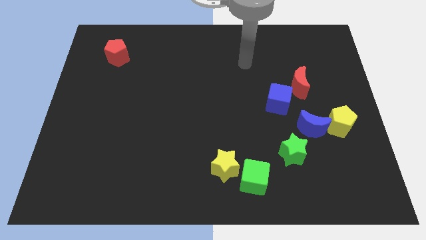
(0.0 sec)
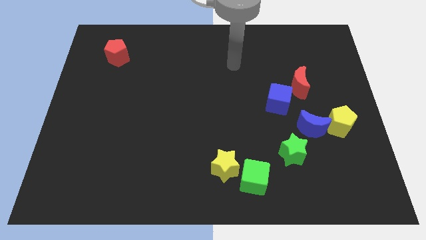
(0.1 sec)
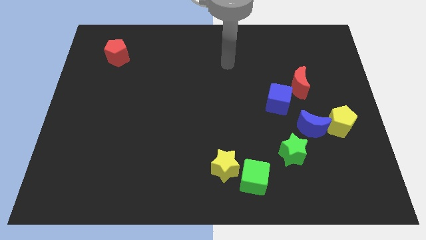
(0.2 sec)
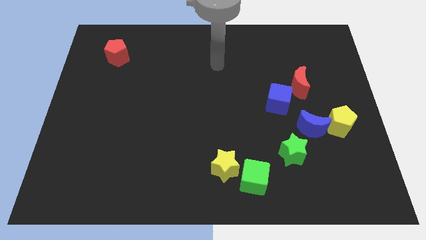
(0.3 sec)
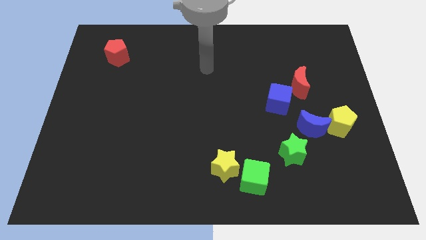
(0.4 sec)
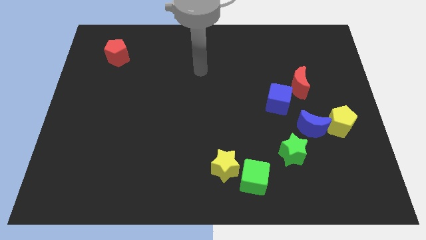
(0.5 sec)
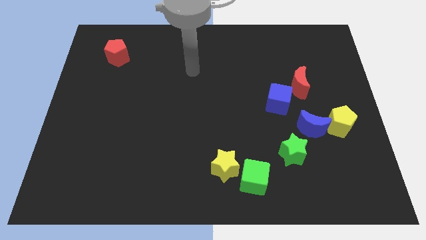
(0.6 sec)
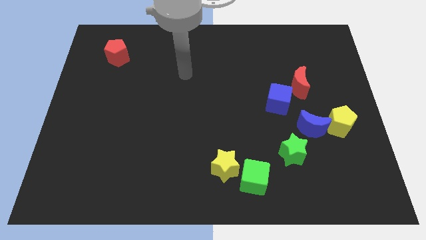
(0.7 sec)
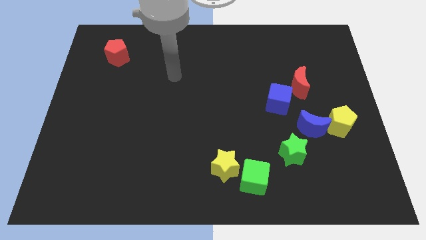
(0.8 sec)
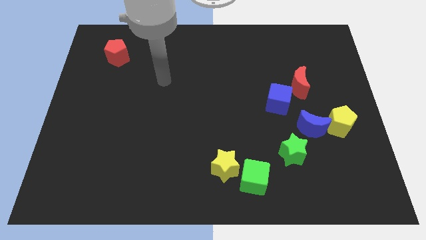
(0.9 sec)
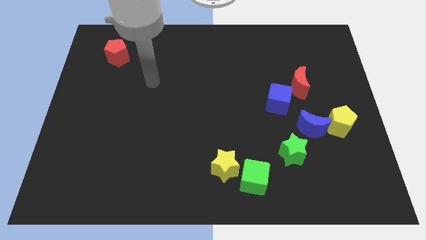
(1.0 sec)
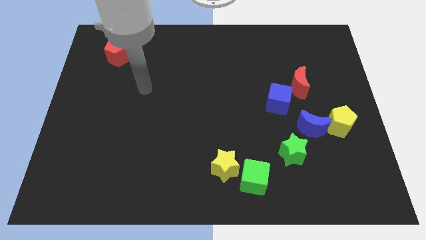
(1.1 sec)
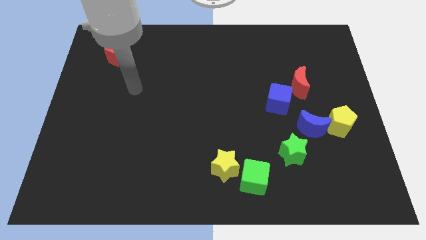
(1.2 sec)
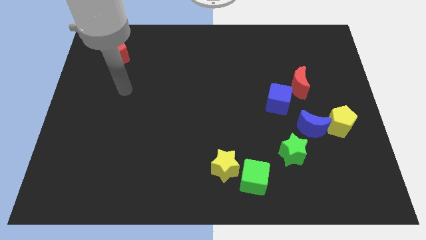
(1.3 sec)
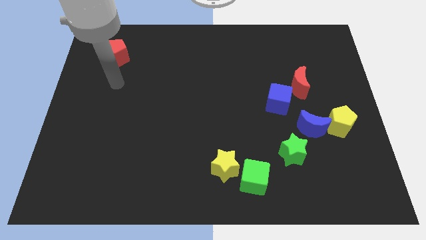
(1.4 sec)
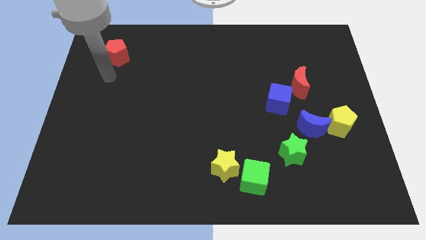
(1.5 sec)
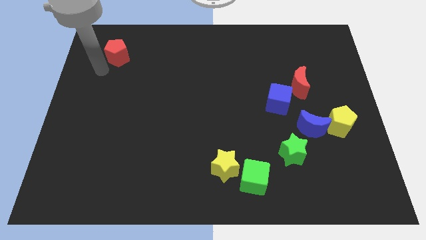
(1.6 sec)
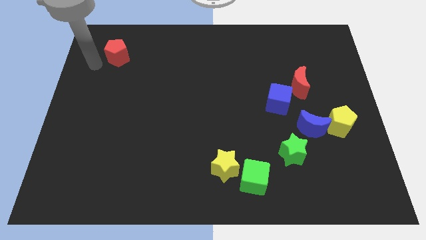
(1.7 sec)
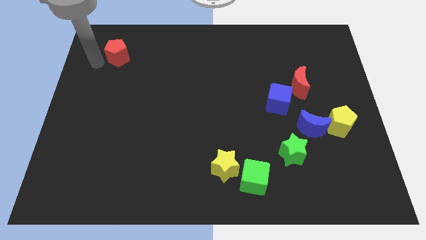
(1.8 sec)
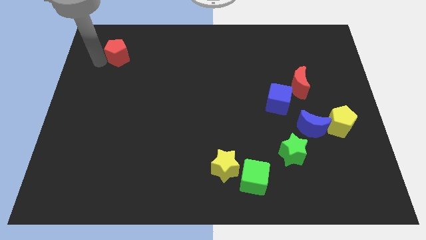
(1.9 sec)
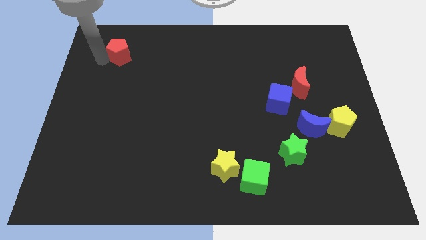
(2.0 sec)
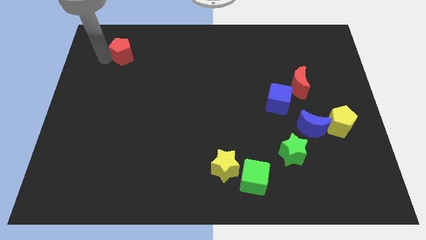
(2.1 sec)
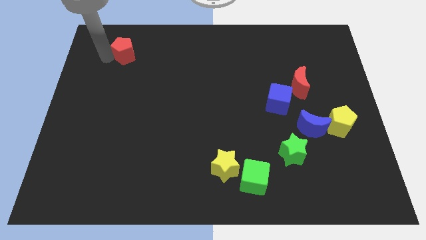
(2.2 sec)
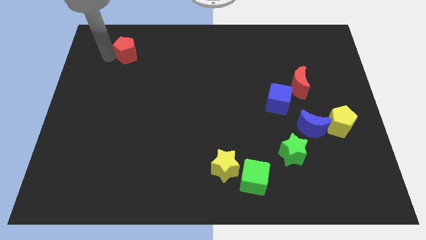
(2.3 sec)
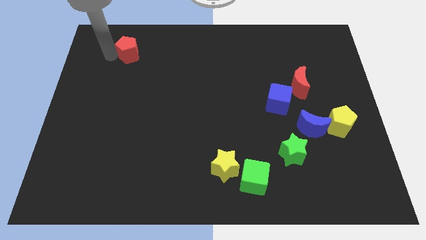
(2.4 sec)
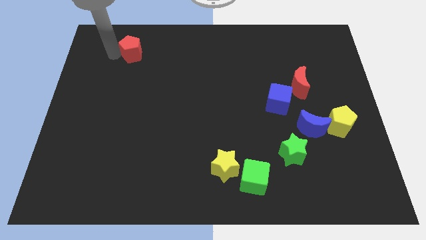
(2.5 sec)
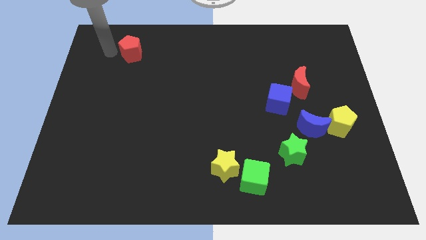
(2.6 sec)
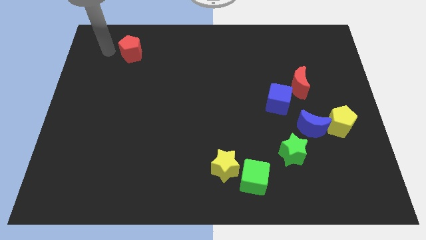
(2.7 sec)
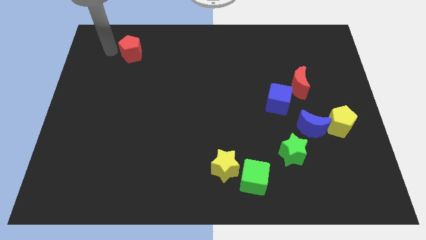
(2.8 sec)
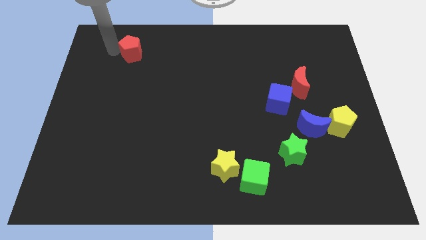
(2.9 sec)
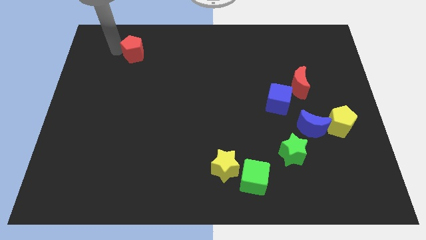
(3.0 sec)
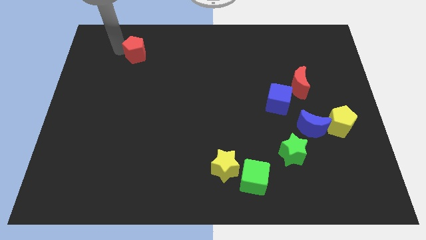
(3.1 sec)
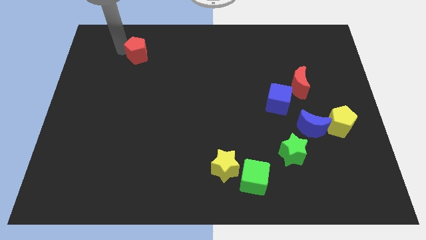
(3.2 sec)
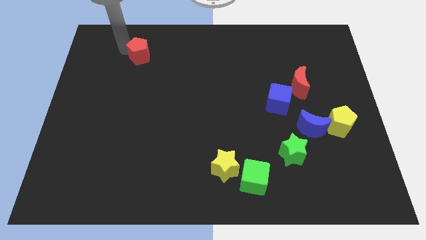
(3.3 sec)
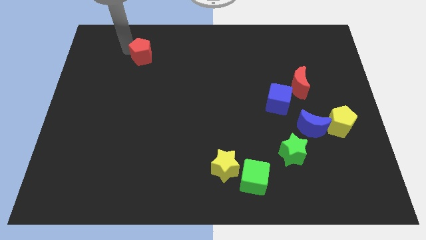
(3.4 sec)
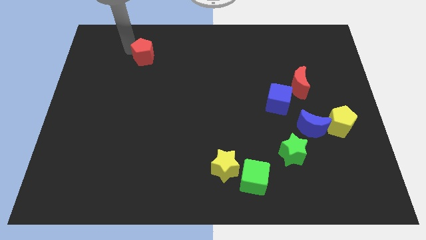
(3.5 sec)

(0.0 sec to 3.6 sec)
move the red pentagon right slightly

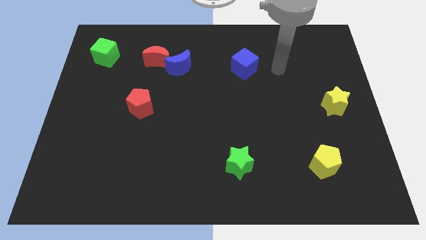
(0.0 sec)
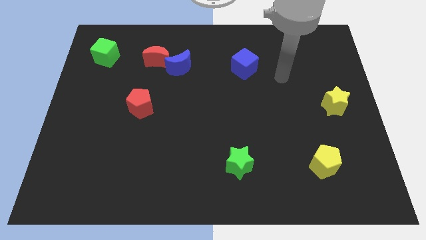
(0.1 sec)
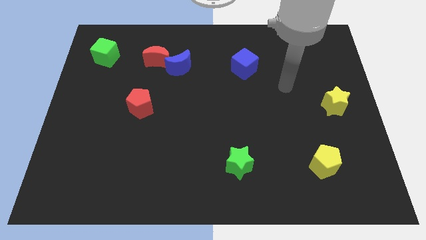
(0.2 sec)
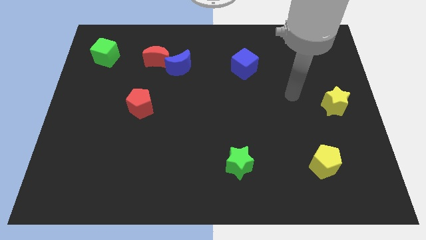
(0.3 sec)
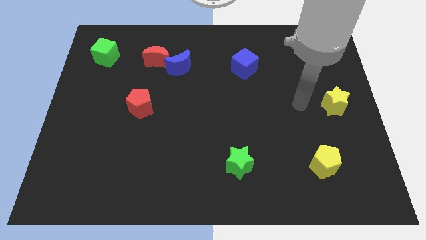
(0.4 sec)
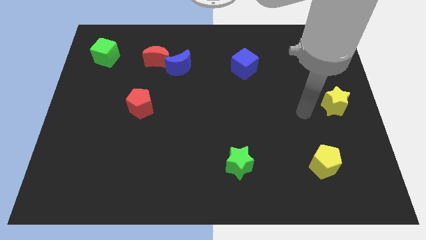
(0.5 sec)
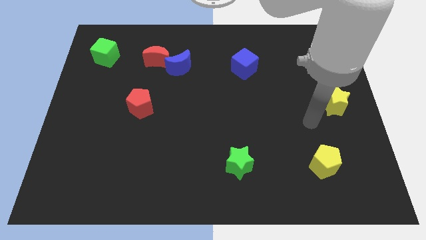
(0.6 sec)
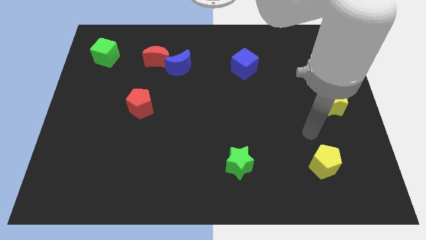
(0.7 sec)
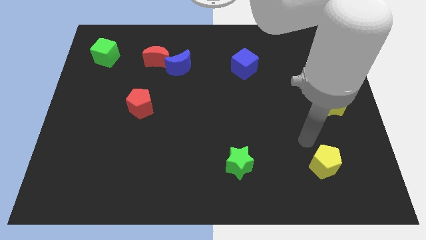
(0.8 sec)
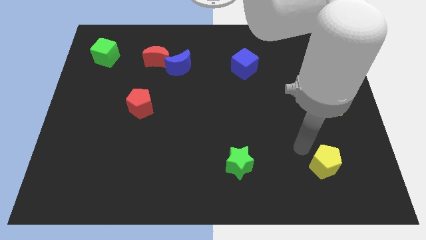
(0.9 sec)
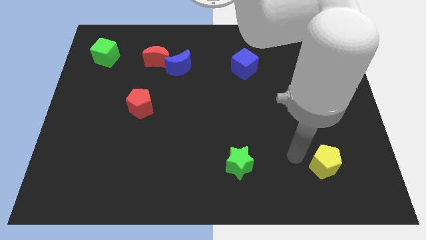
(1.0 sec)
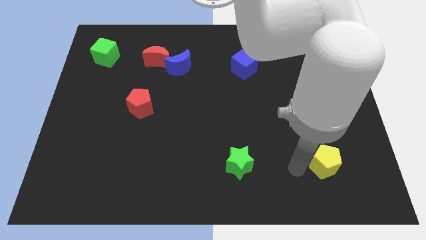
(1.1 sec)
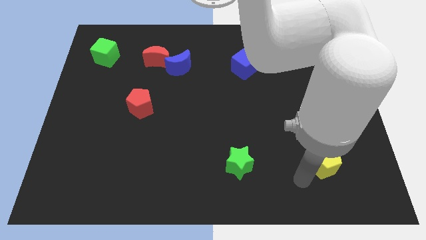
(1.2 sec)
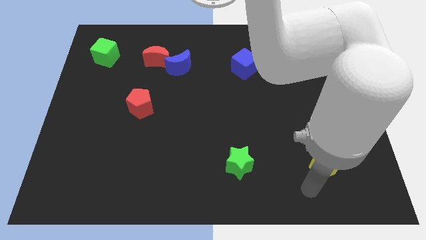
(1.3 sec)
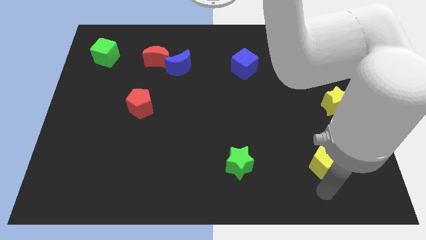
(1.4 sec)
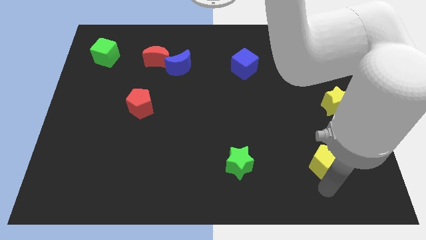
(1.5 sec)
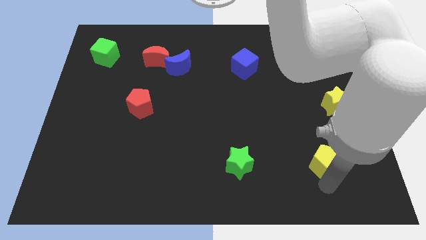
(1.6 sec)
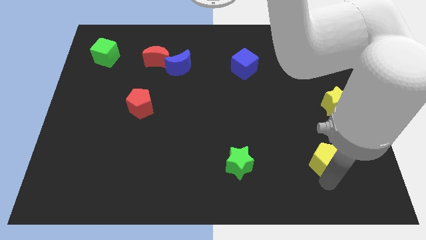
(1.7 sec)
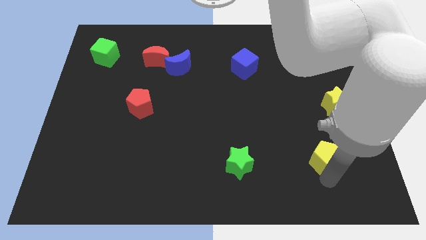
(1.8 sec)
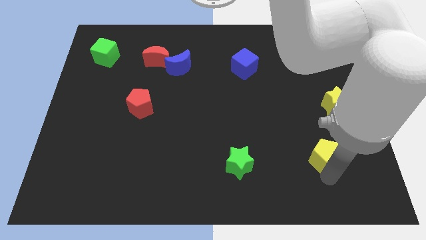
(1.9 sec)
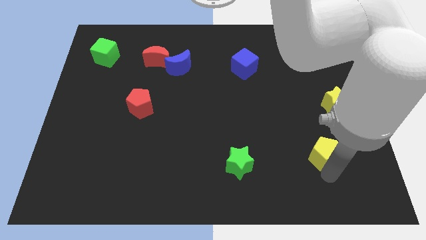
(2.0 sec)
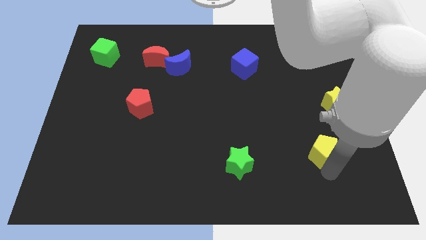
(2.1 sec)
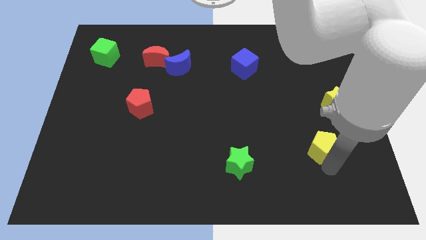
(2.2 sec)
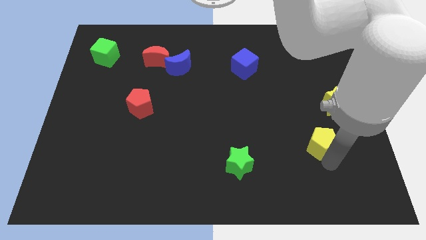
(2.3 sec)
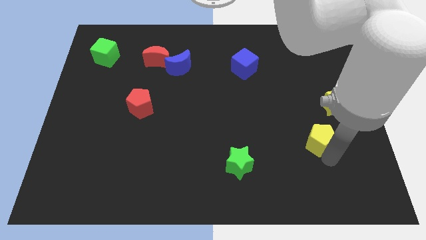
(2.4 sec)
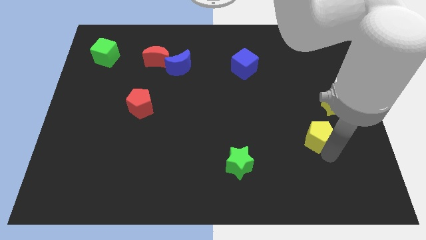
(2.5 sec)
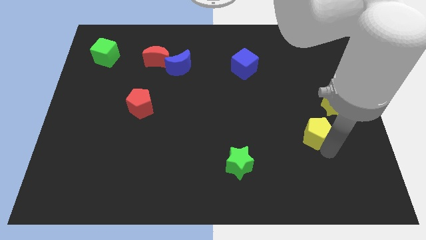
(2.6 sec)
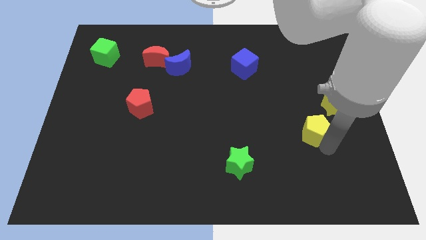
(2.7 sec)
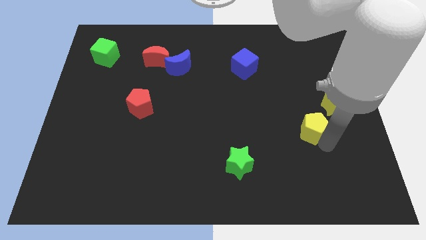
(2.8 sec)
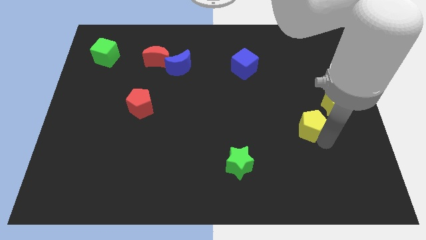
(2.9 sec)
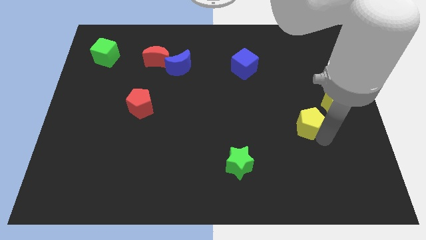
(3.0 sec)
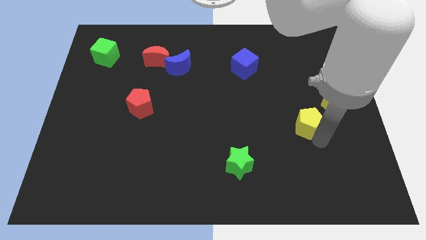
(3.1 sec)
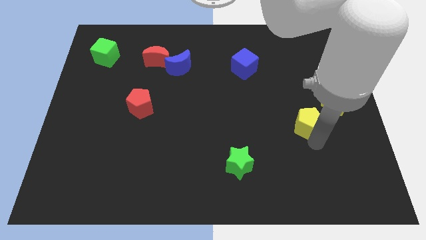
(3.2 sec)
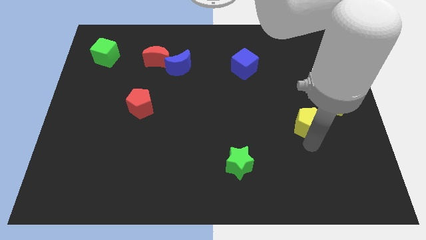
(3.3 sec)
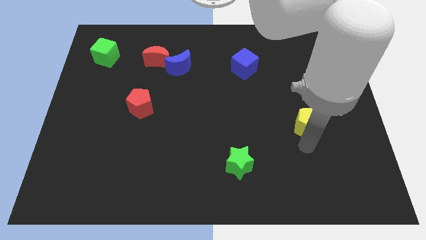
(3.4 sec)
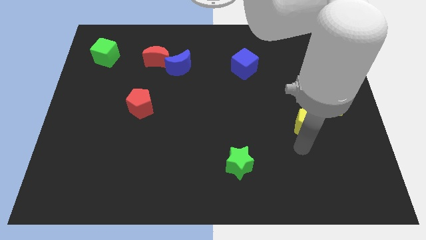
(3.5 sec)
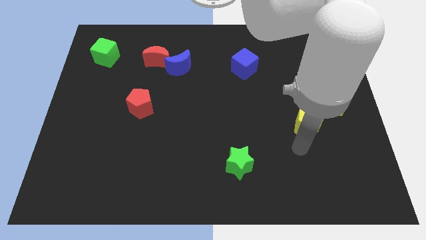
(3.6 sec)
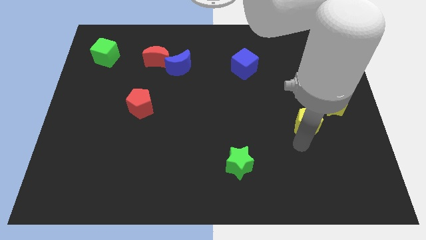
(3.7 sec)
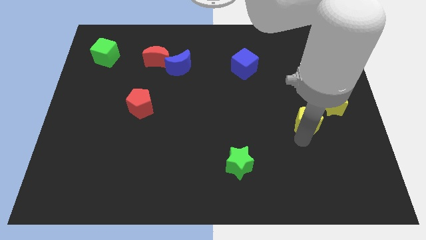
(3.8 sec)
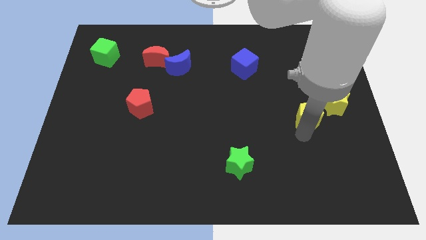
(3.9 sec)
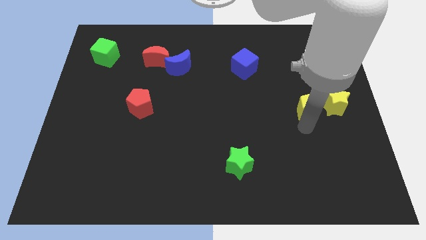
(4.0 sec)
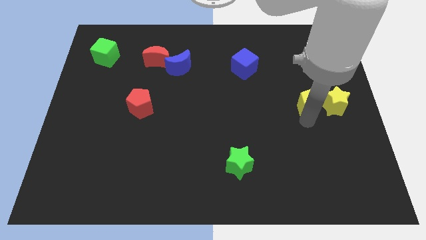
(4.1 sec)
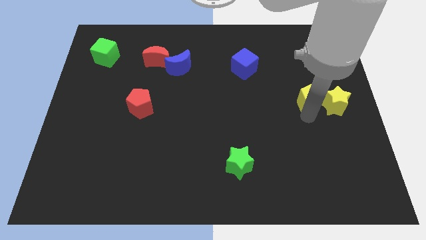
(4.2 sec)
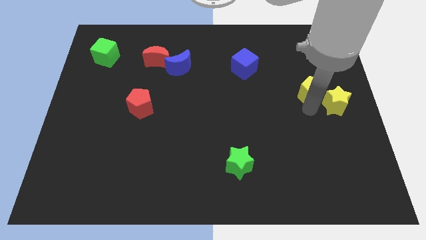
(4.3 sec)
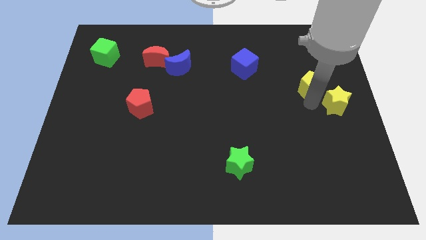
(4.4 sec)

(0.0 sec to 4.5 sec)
slide the yellow pentagon up
